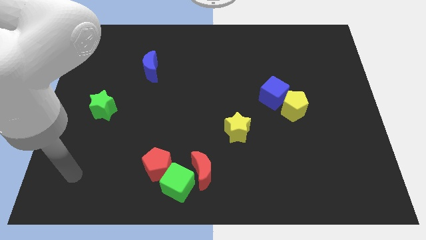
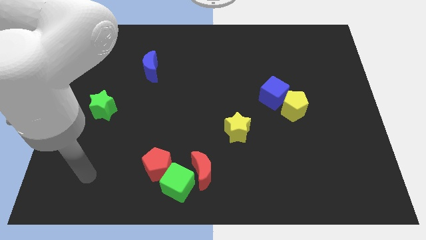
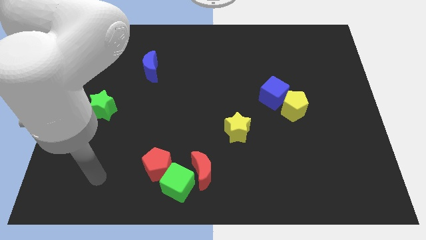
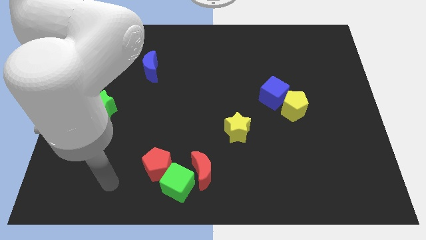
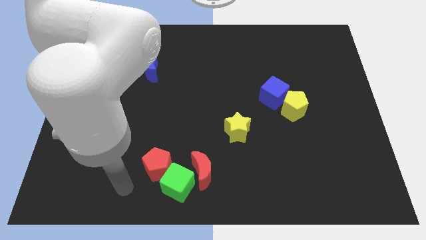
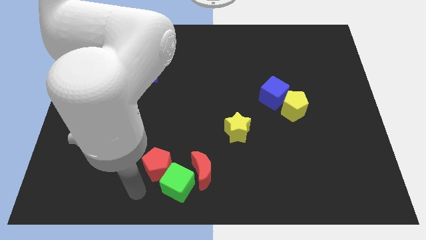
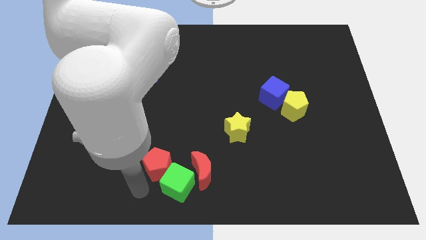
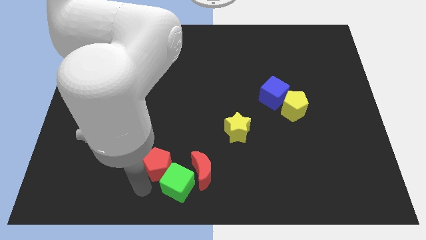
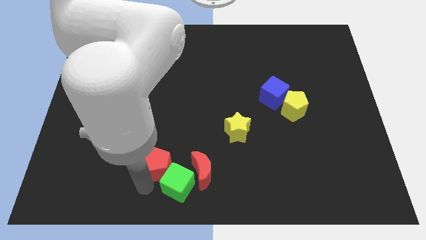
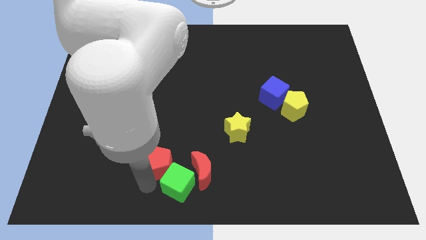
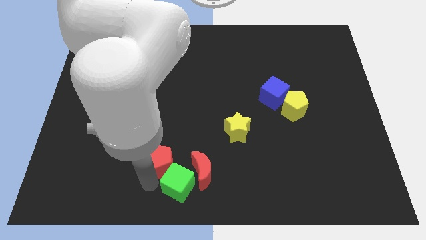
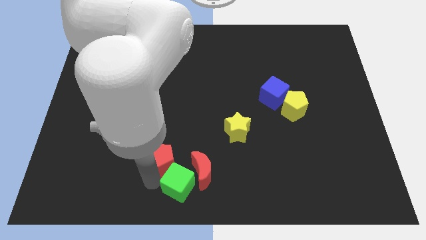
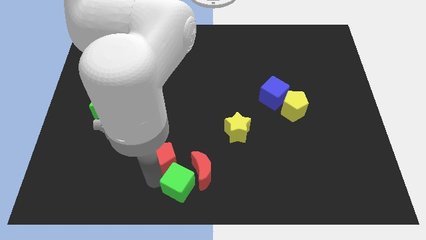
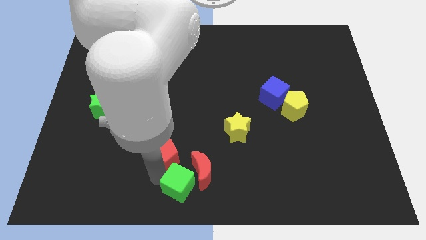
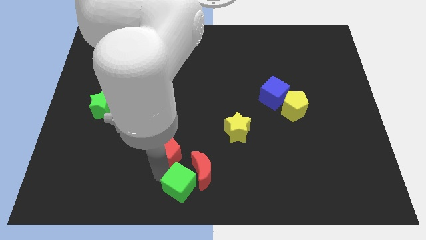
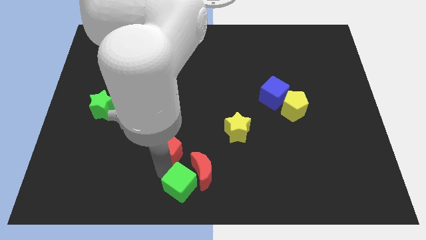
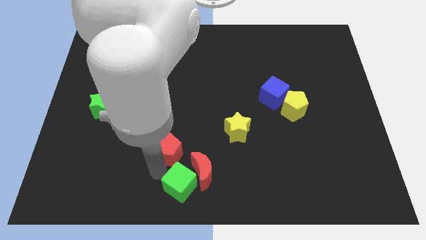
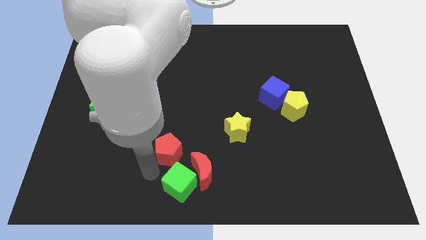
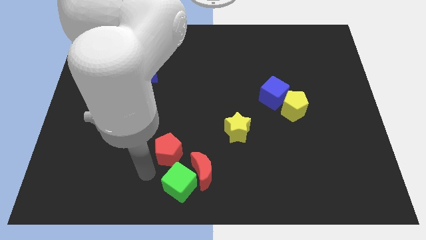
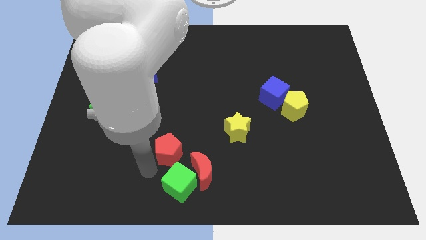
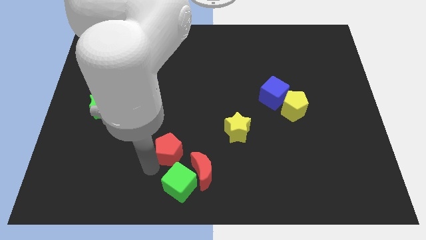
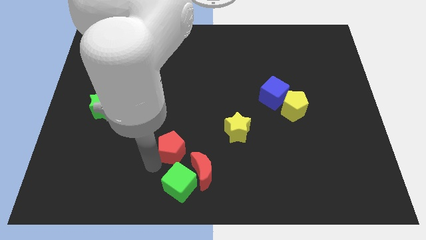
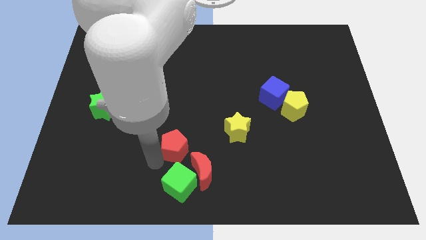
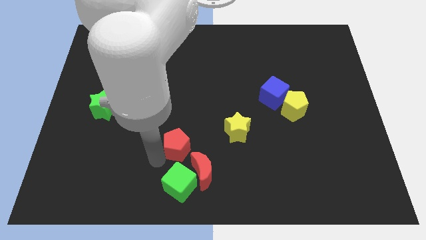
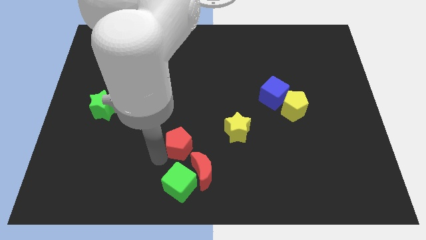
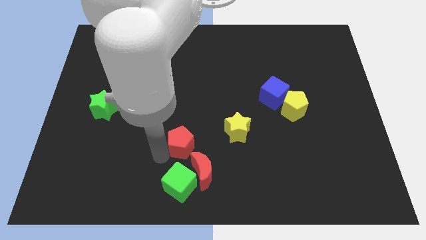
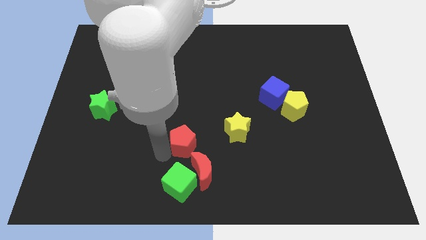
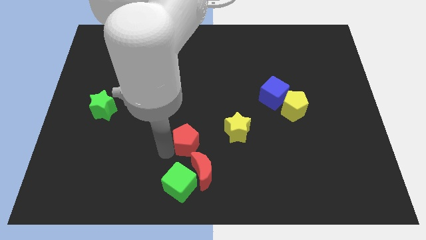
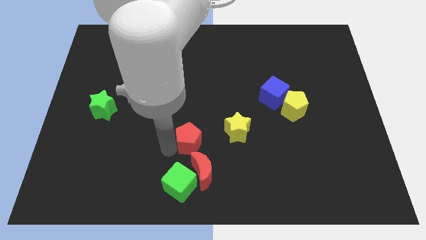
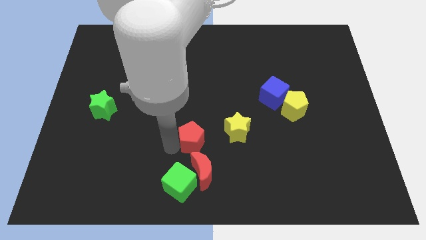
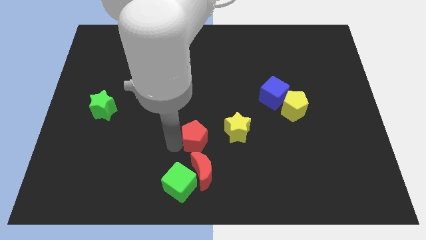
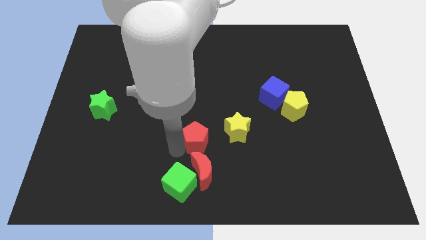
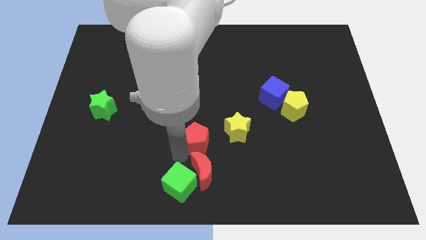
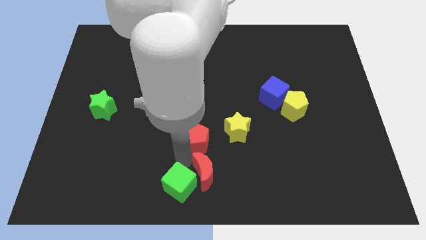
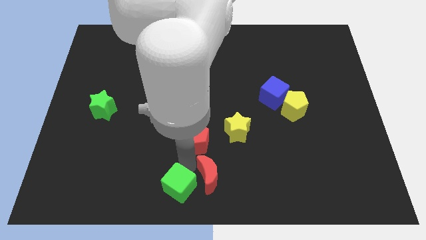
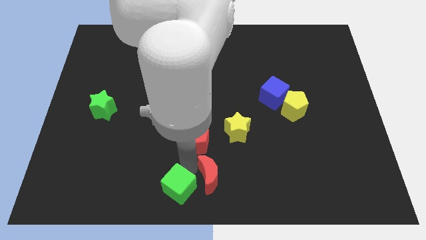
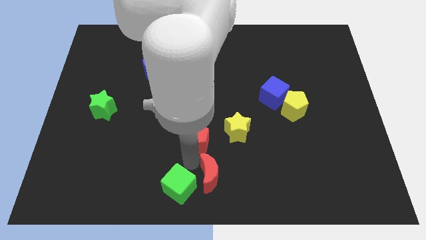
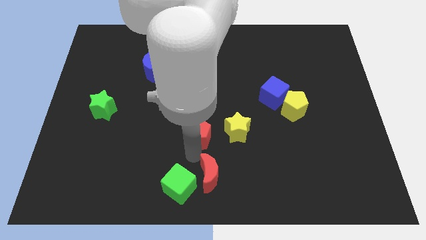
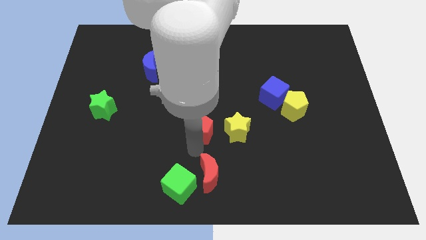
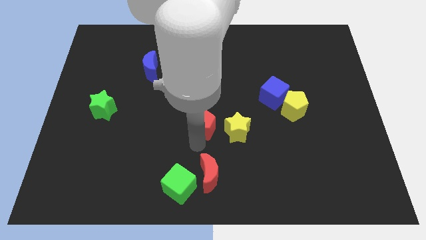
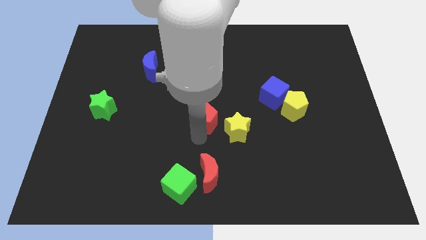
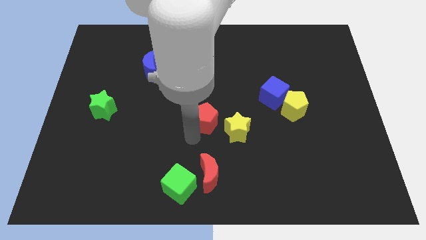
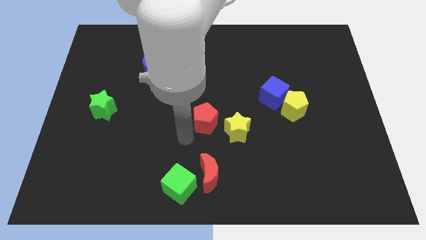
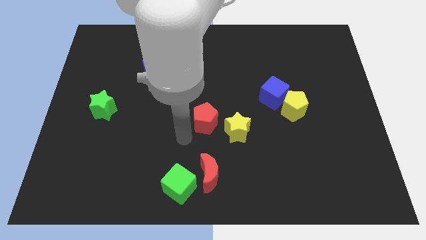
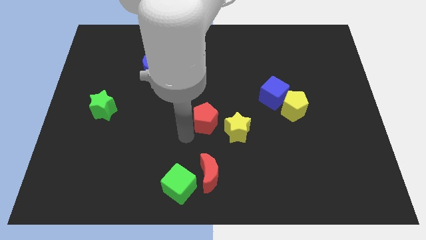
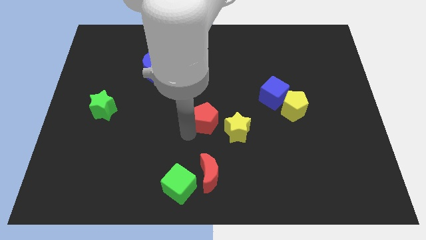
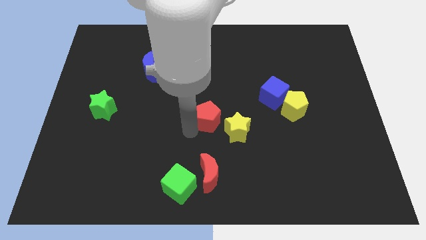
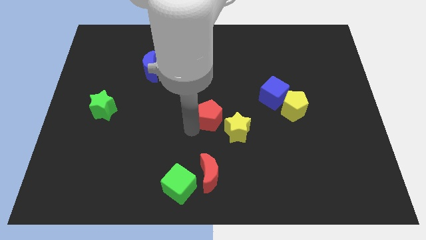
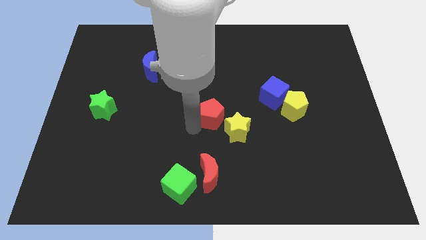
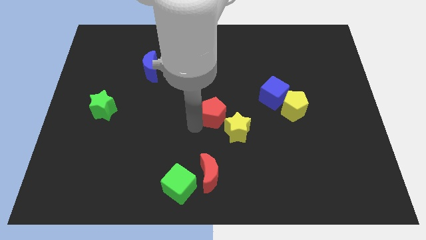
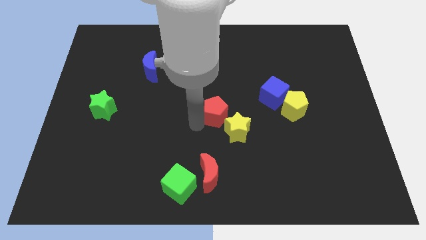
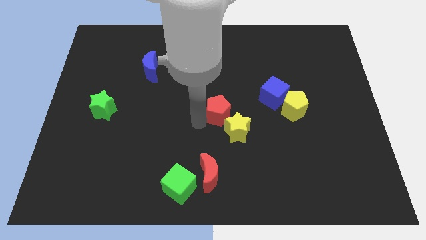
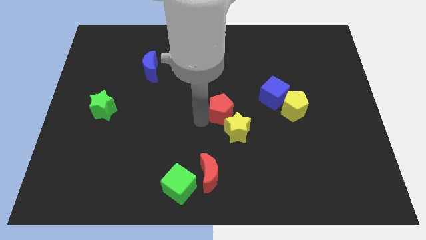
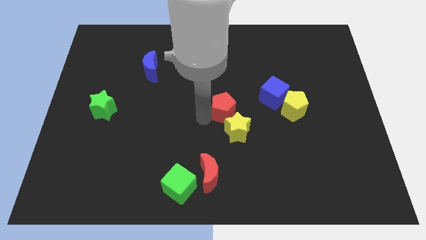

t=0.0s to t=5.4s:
move the red pentagon upwards and right

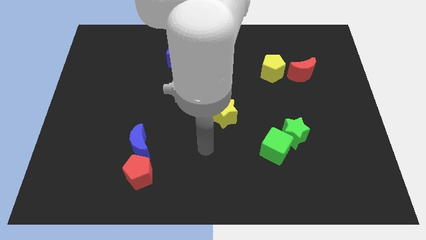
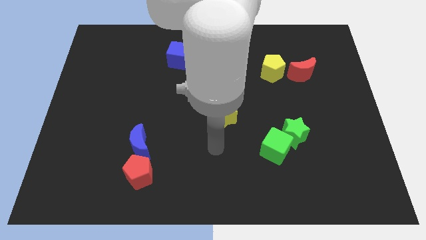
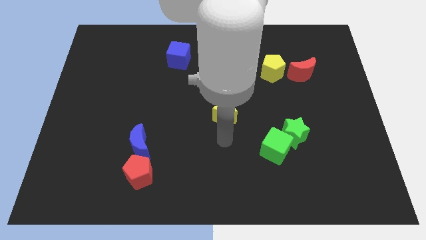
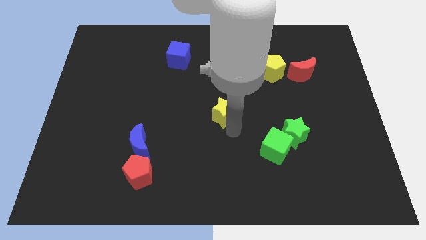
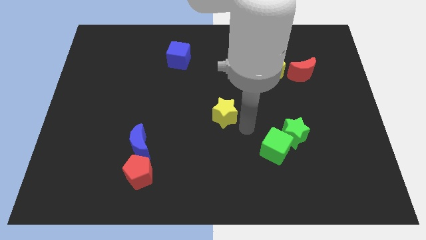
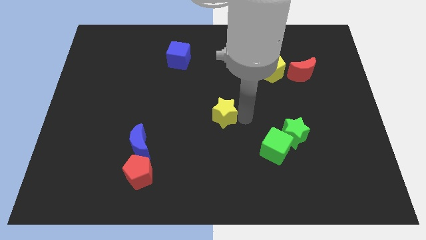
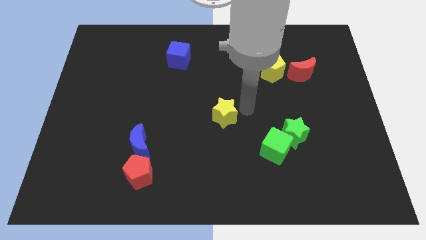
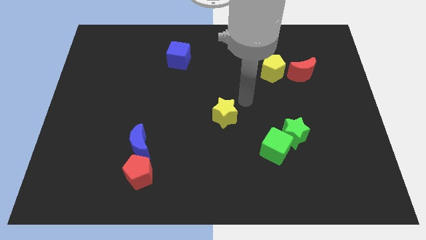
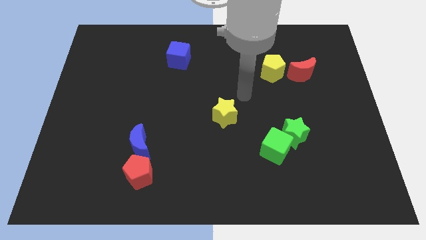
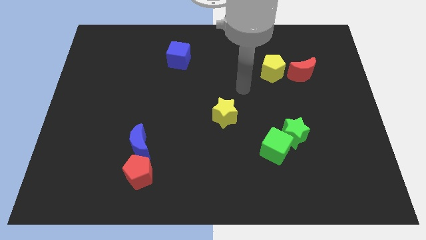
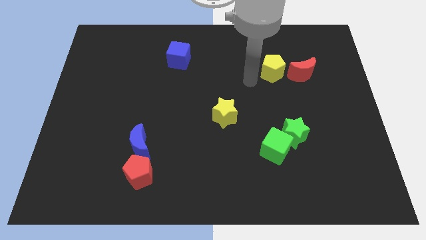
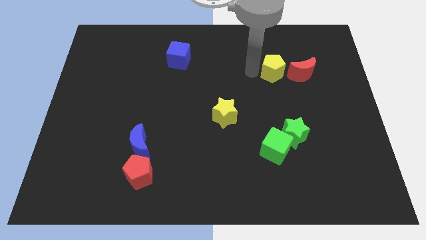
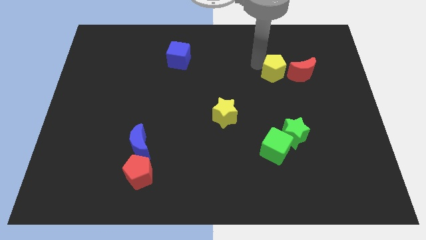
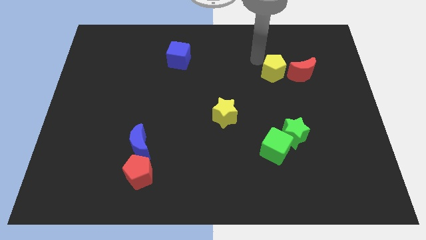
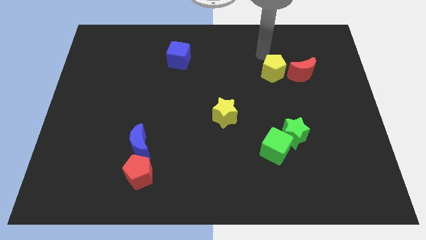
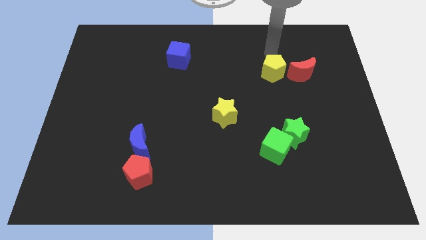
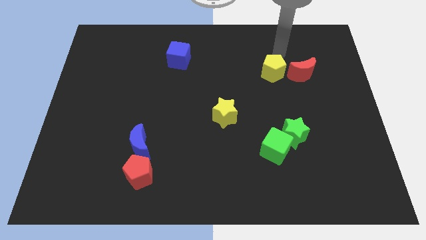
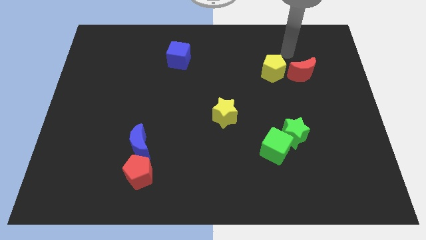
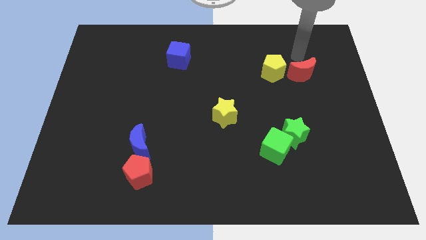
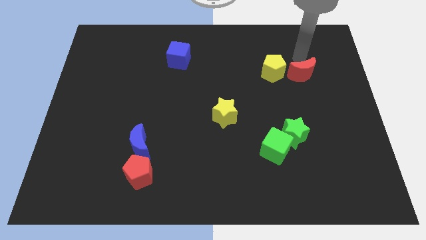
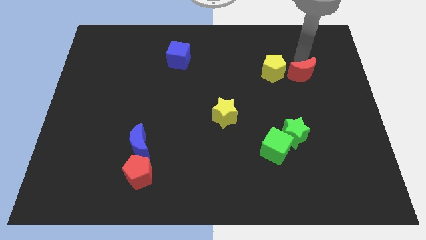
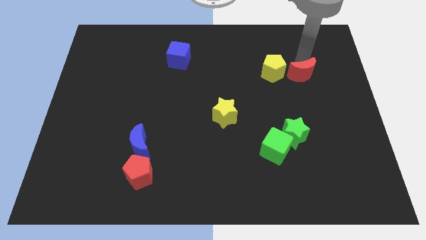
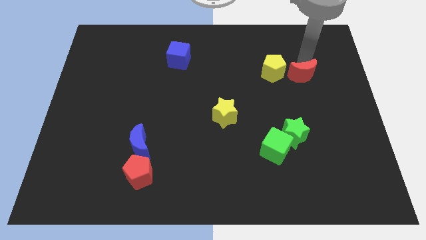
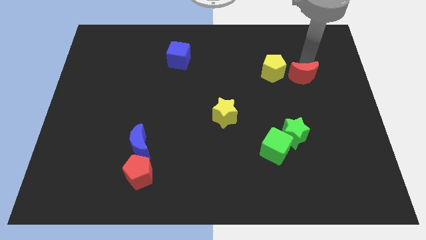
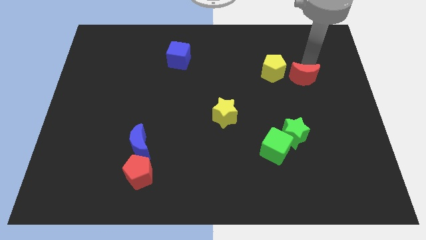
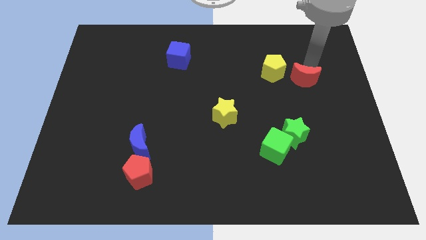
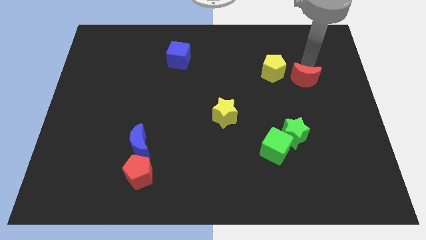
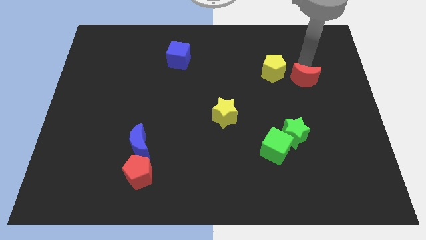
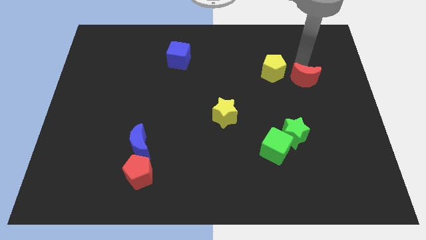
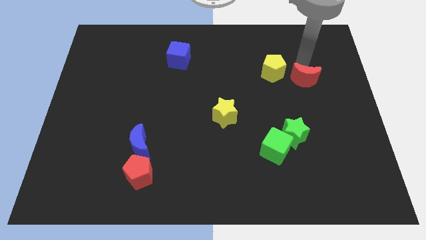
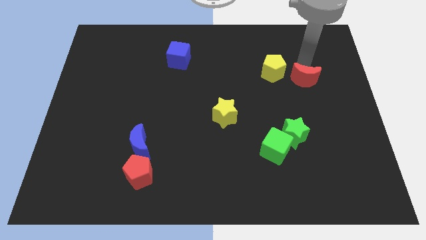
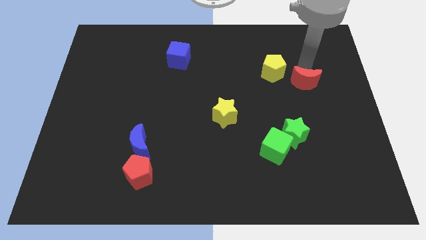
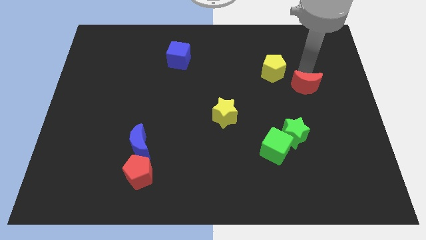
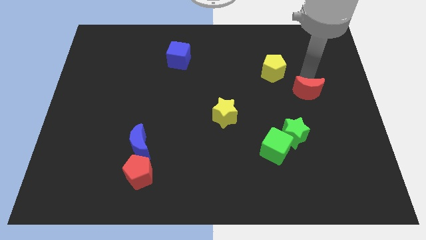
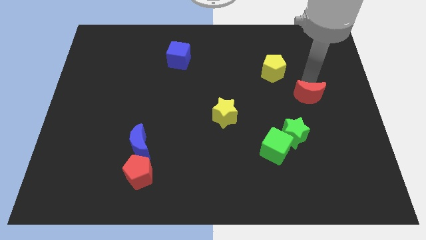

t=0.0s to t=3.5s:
slide the red moon downwards somewhat
